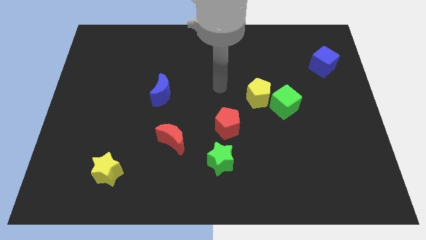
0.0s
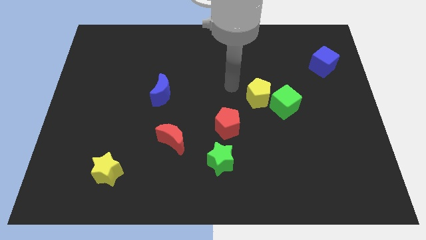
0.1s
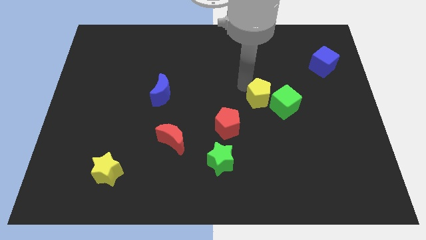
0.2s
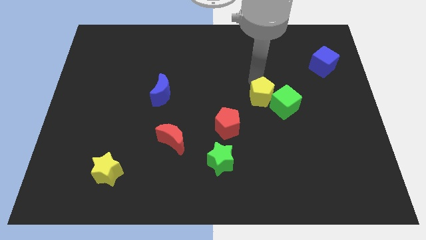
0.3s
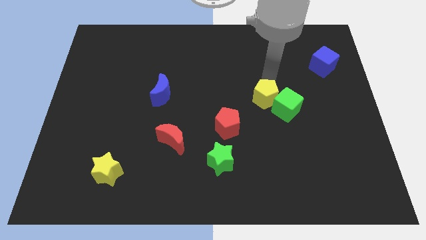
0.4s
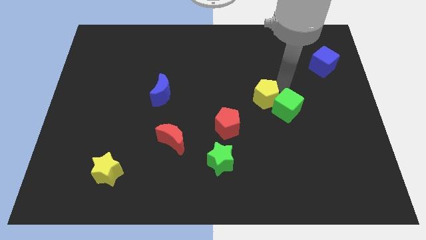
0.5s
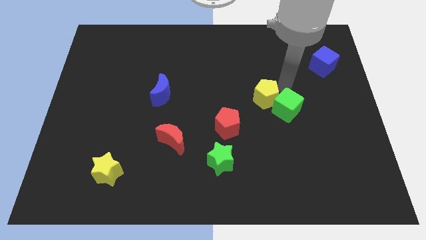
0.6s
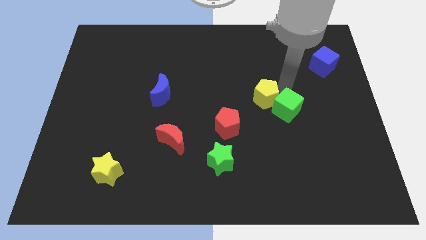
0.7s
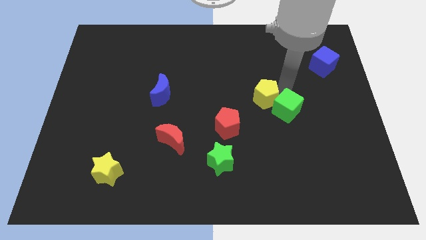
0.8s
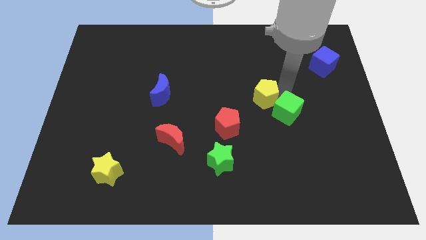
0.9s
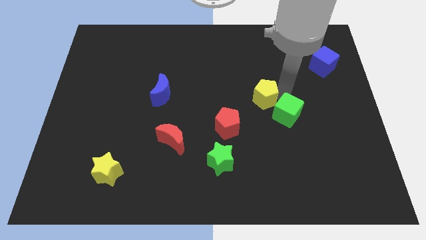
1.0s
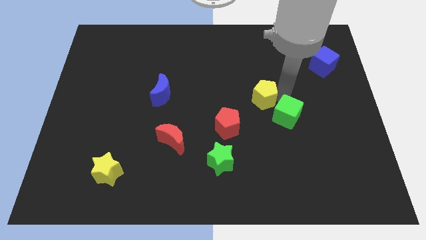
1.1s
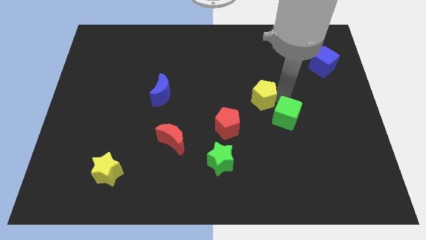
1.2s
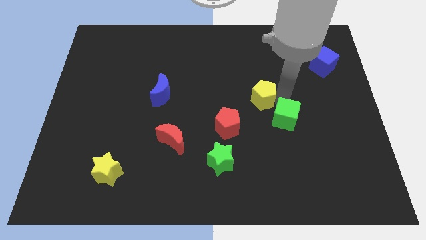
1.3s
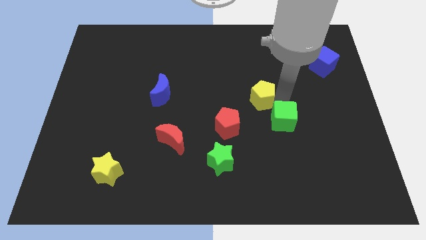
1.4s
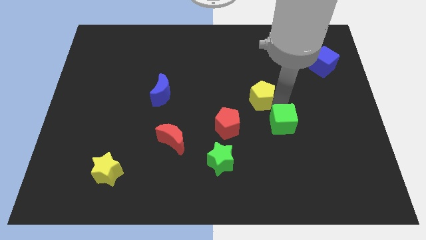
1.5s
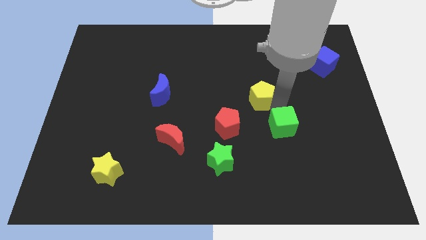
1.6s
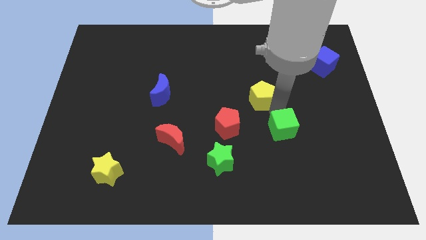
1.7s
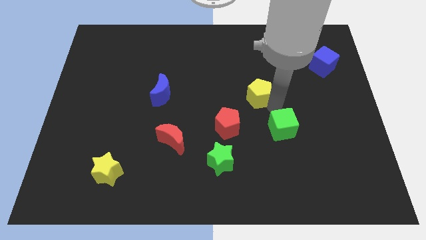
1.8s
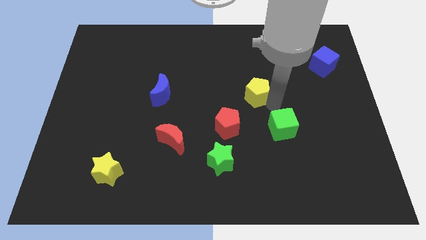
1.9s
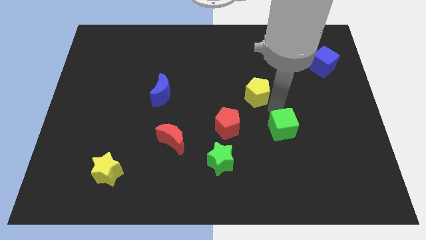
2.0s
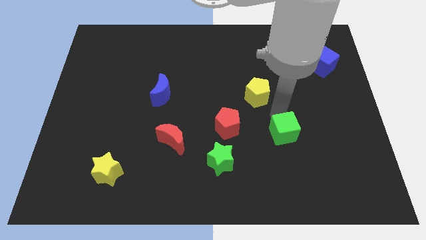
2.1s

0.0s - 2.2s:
move the green cube a little downwards

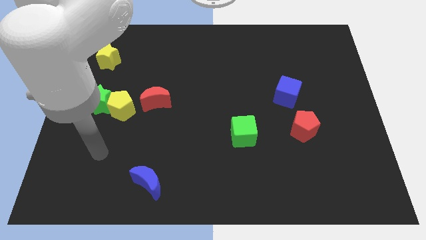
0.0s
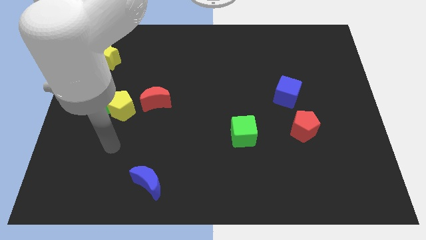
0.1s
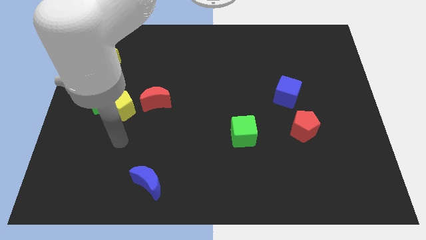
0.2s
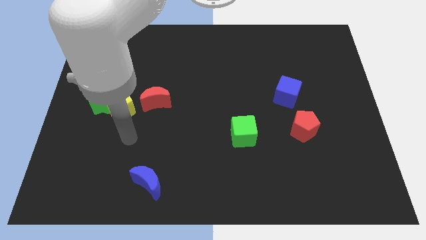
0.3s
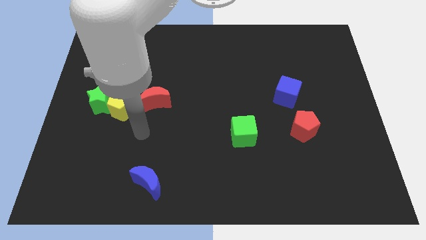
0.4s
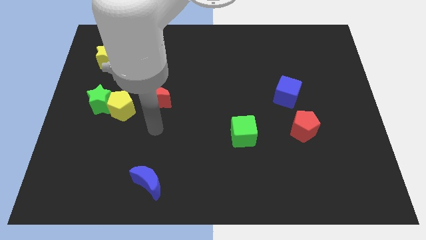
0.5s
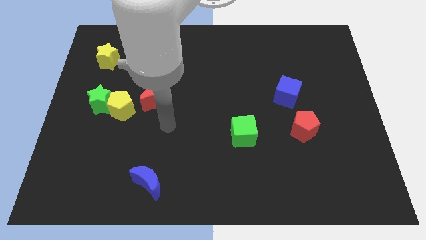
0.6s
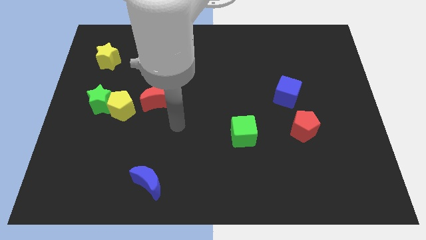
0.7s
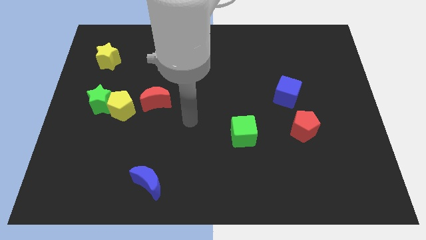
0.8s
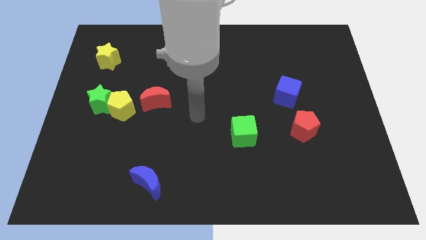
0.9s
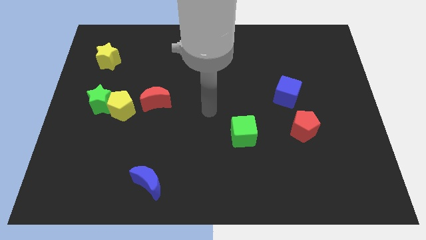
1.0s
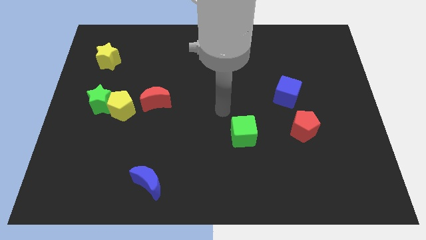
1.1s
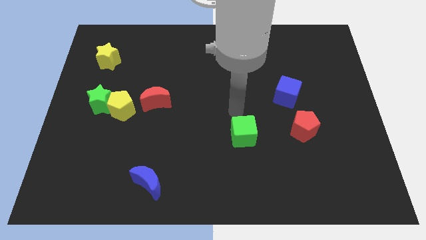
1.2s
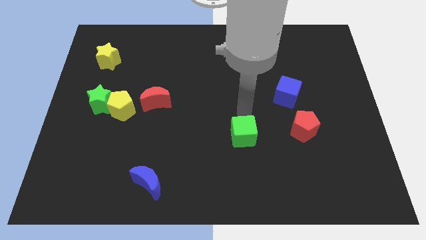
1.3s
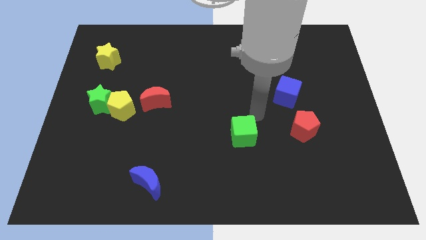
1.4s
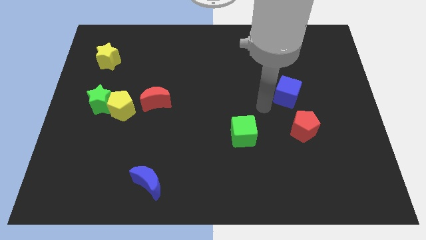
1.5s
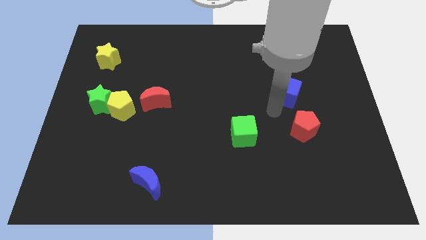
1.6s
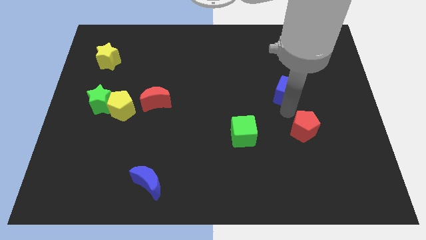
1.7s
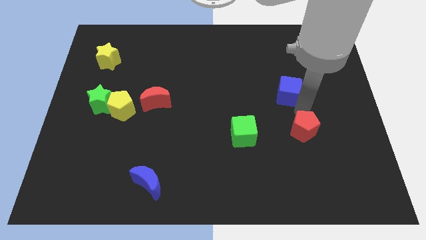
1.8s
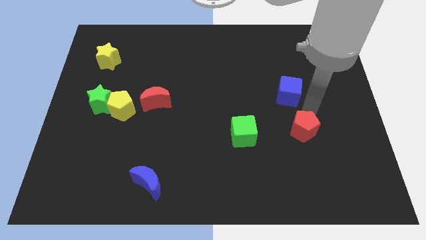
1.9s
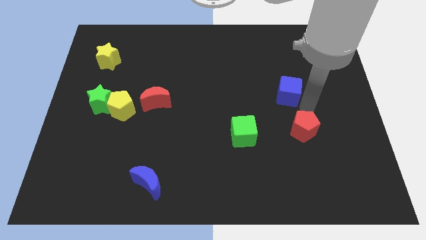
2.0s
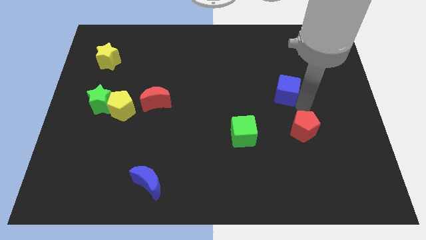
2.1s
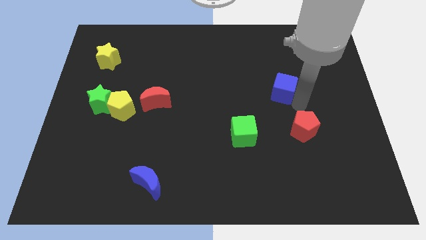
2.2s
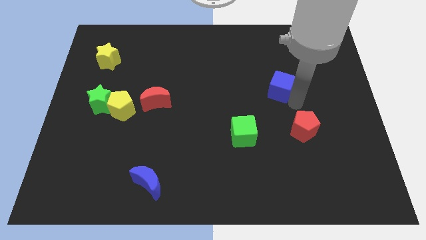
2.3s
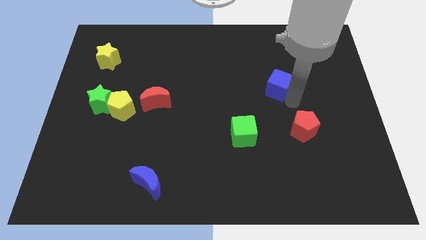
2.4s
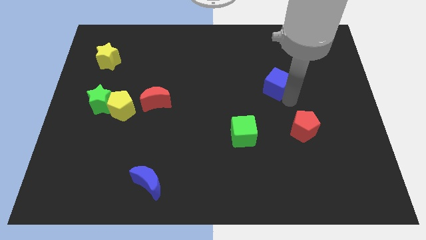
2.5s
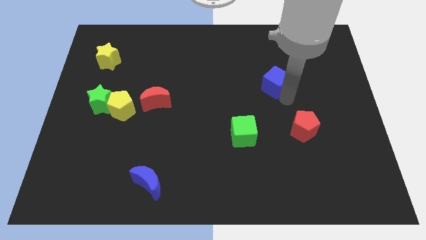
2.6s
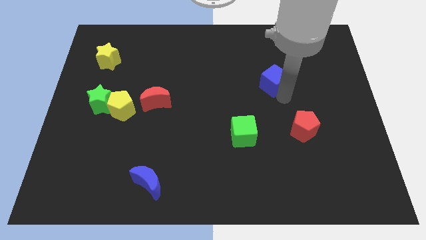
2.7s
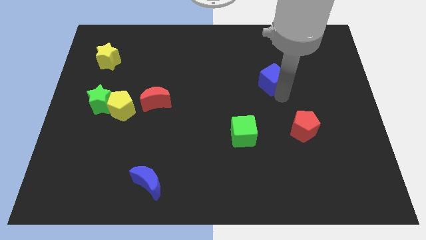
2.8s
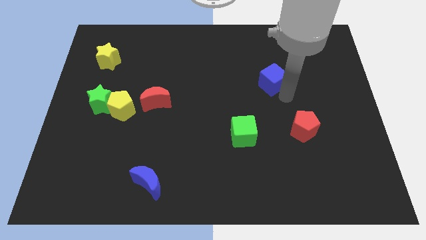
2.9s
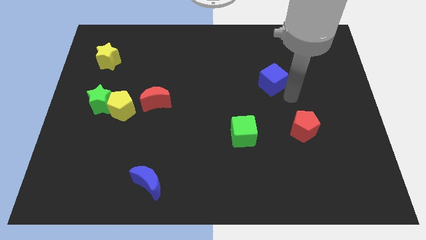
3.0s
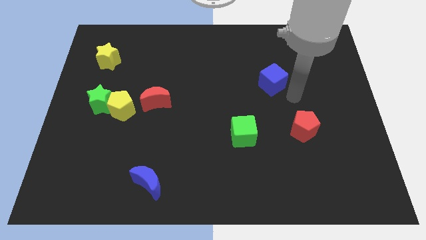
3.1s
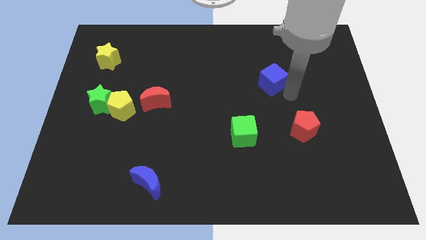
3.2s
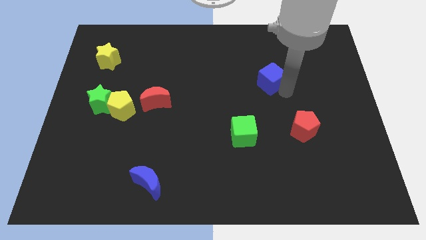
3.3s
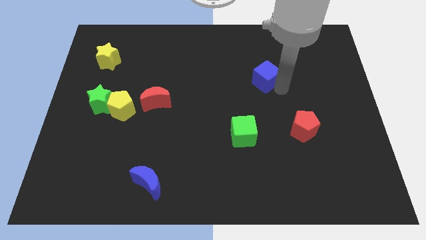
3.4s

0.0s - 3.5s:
push the blue cube a little bit upwards and left diagonally

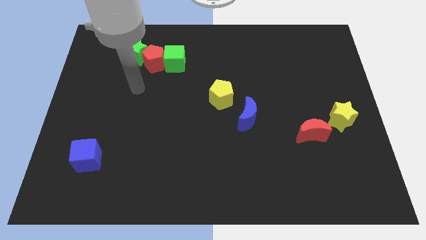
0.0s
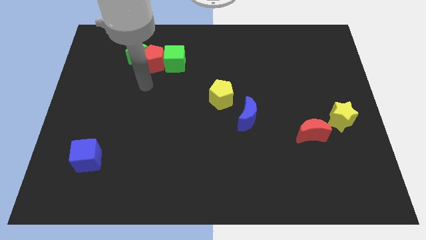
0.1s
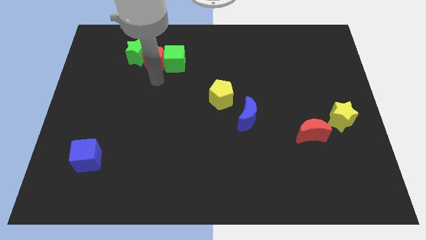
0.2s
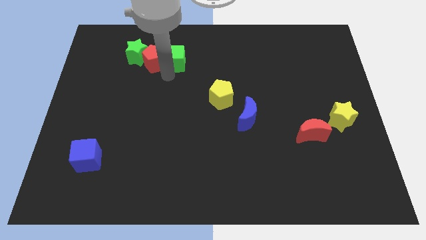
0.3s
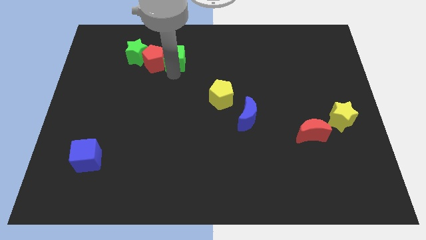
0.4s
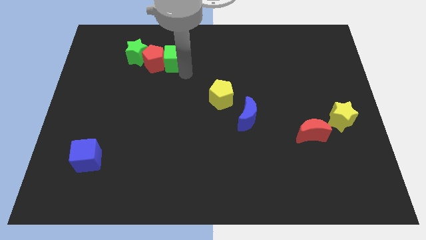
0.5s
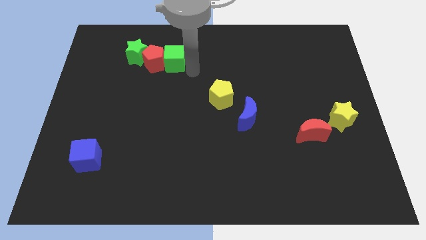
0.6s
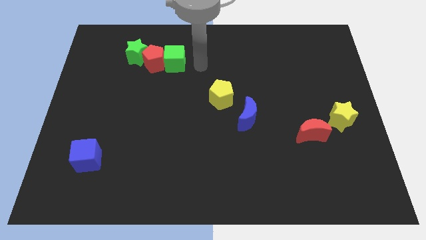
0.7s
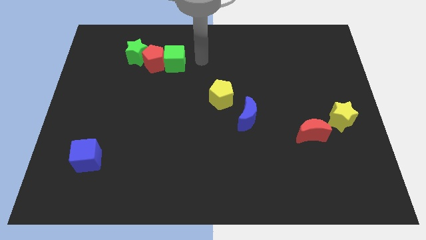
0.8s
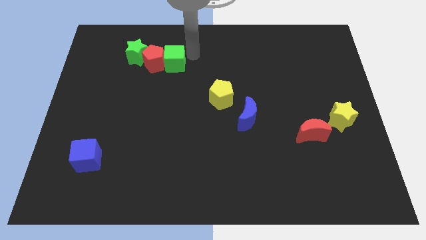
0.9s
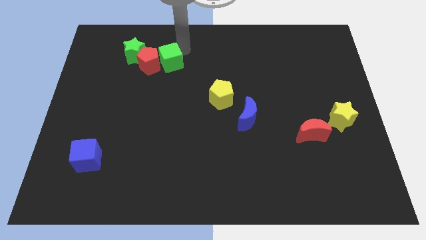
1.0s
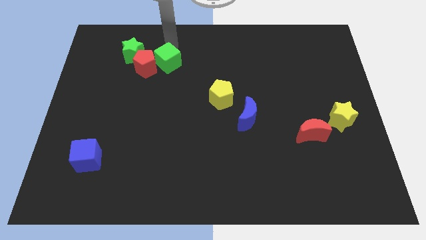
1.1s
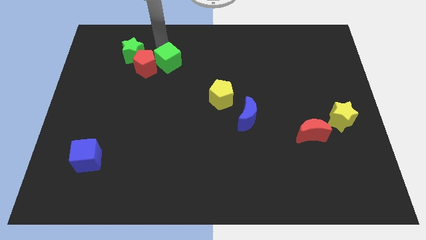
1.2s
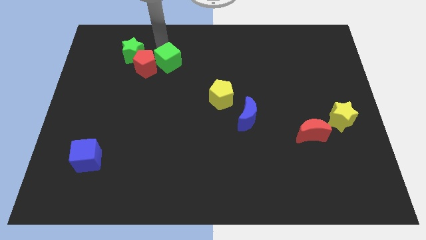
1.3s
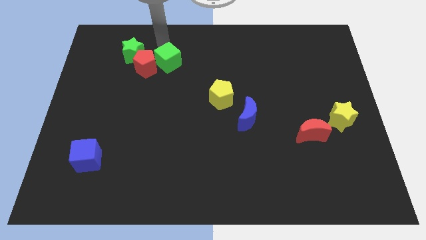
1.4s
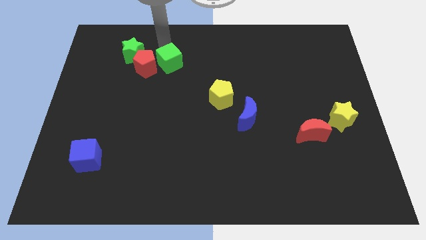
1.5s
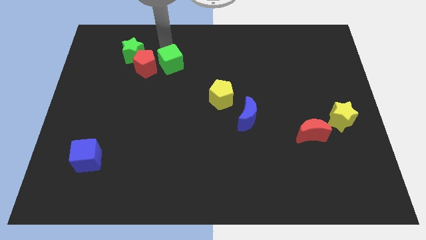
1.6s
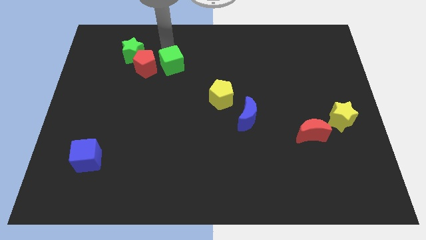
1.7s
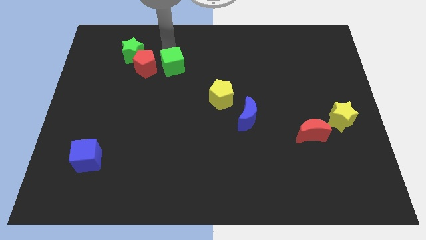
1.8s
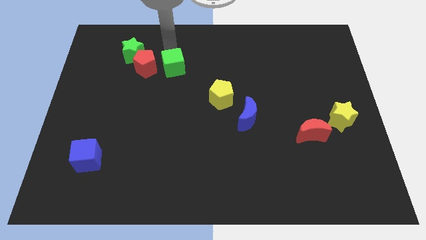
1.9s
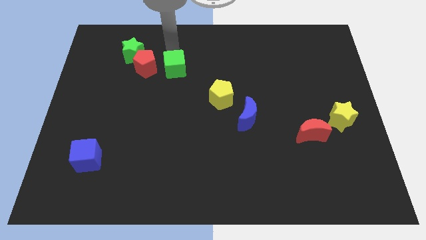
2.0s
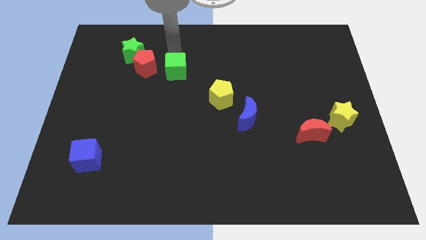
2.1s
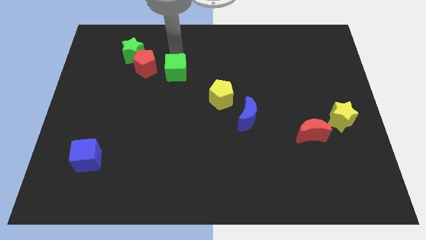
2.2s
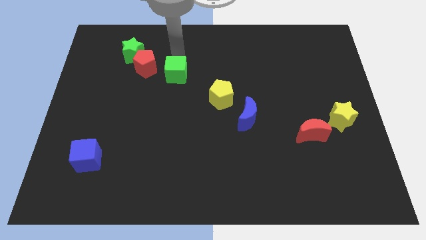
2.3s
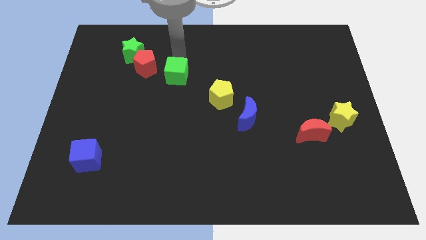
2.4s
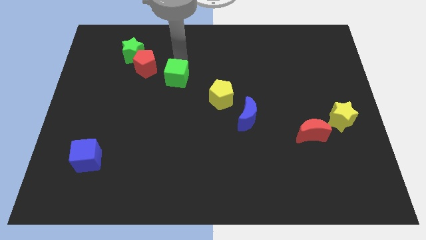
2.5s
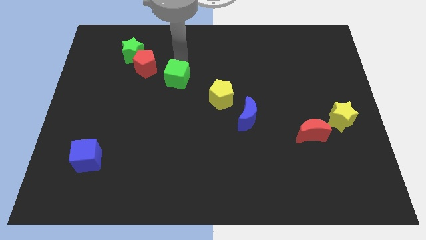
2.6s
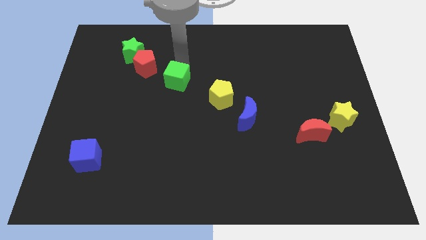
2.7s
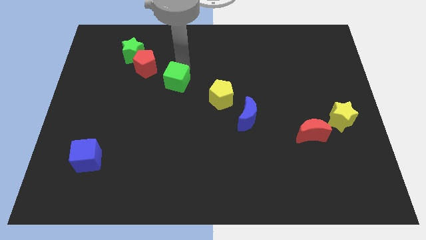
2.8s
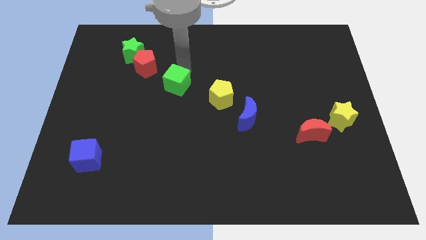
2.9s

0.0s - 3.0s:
move the green cube downwards a little
